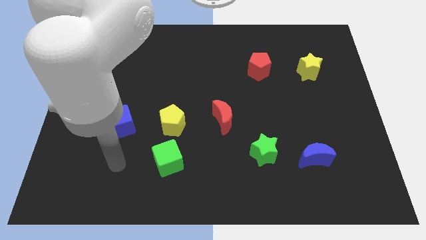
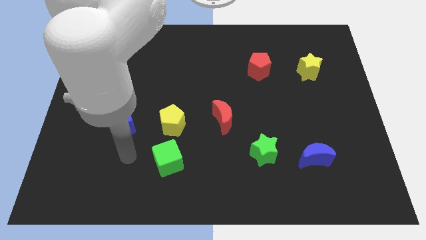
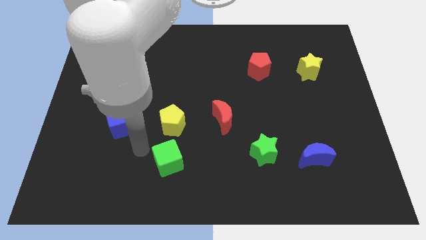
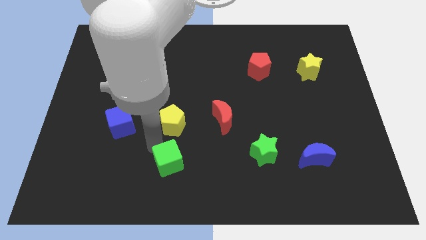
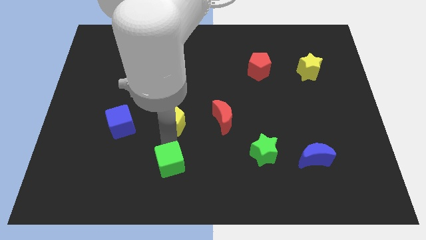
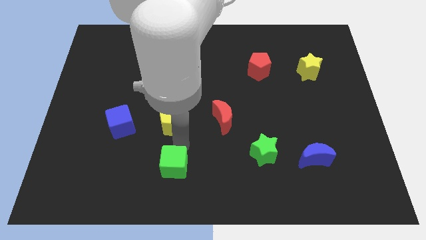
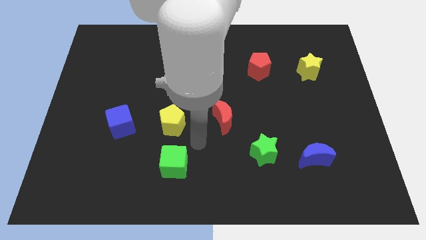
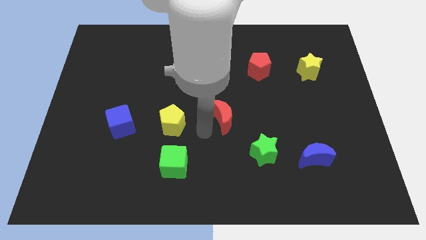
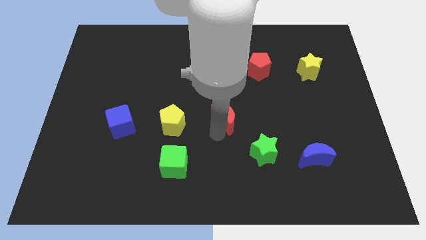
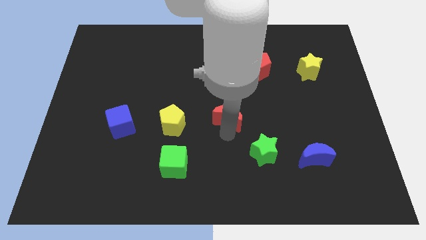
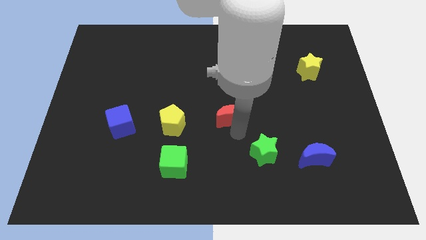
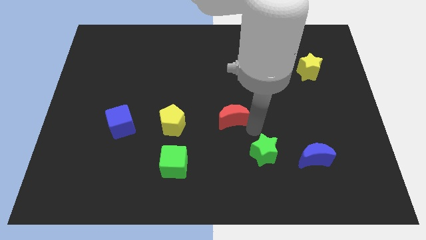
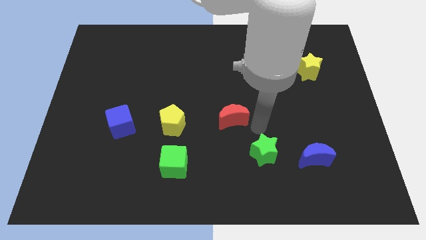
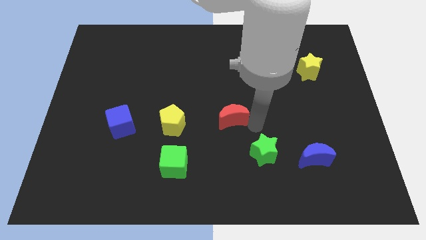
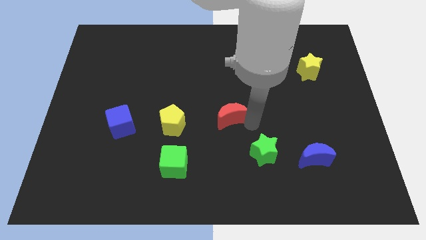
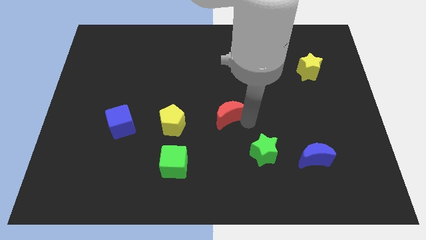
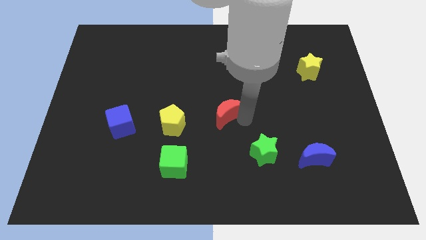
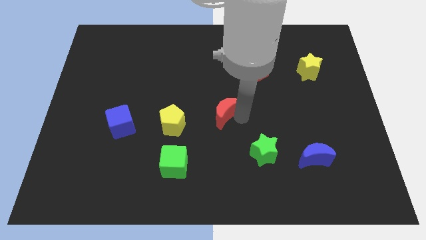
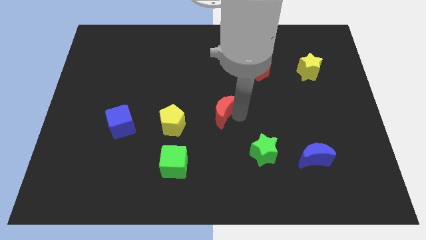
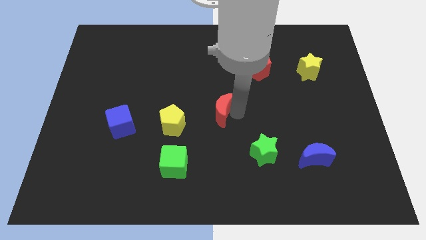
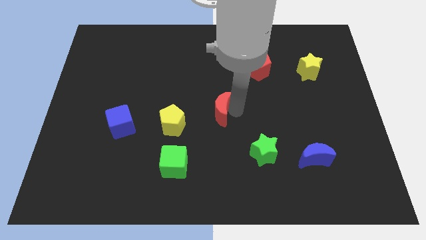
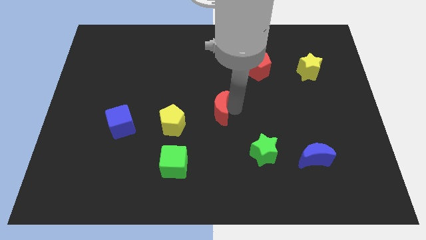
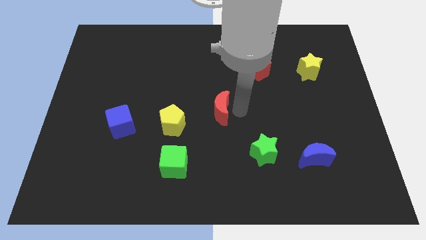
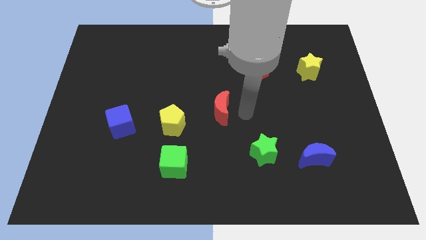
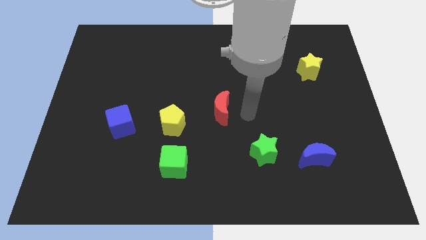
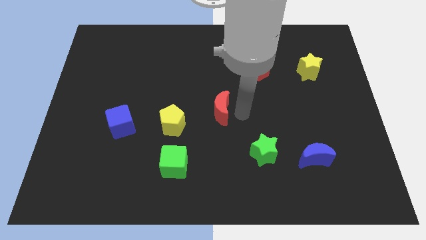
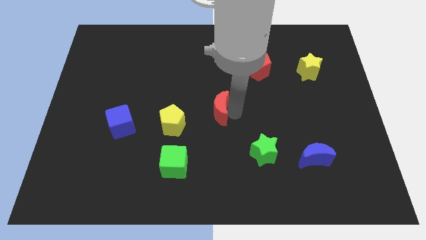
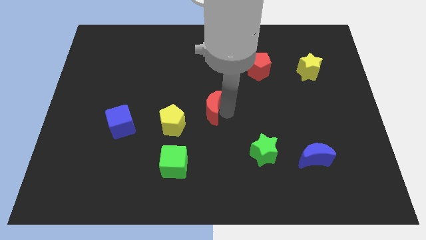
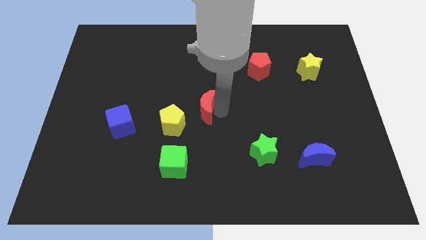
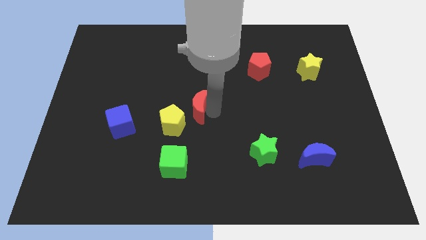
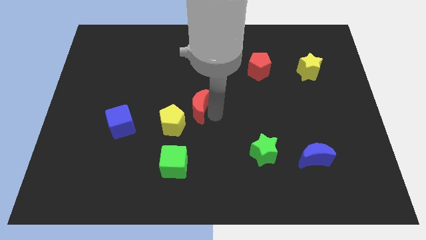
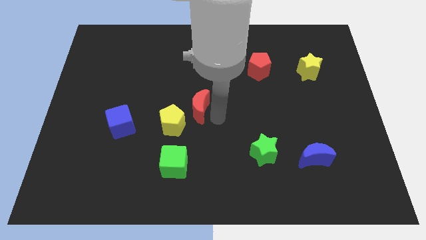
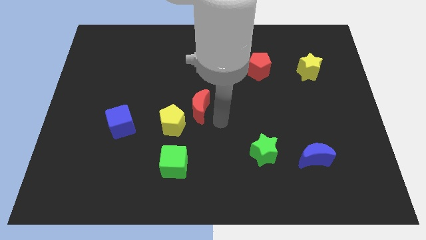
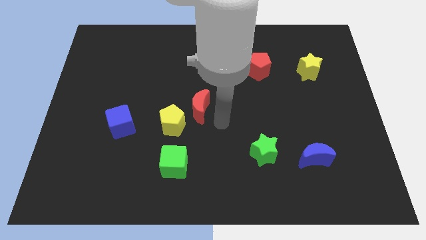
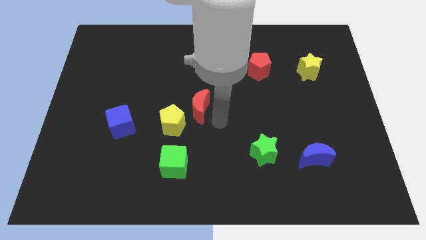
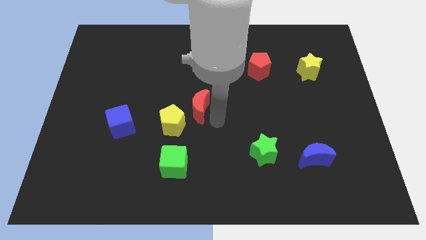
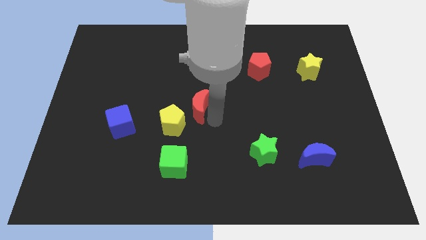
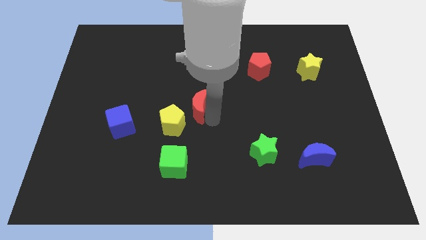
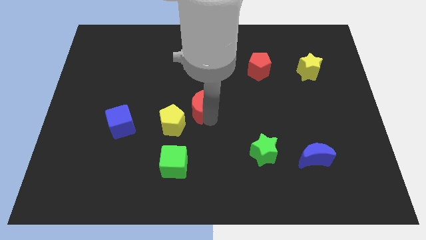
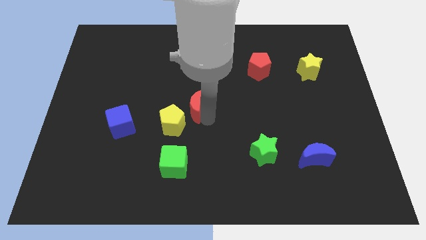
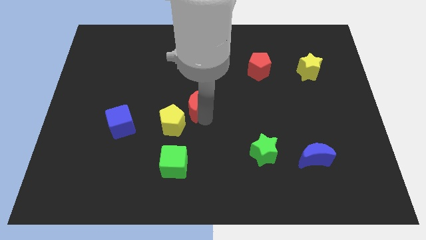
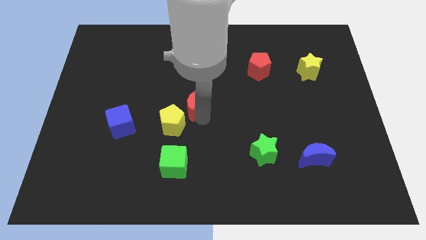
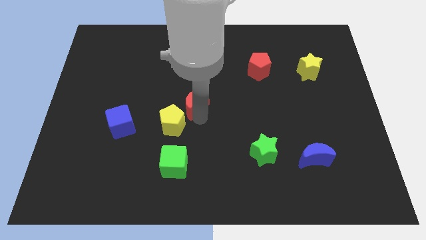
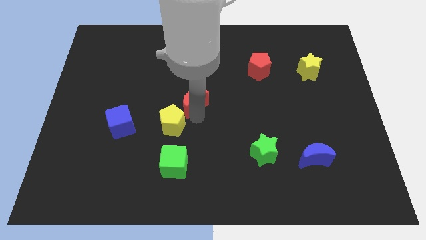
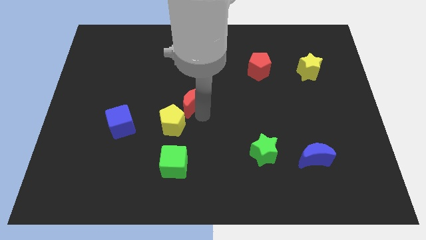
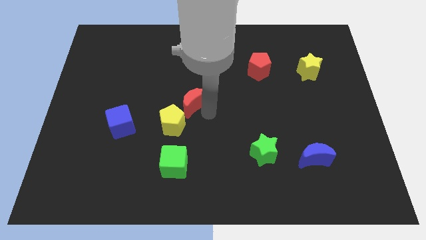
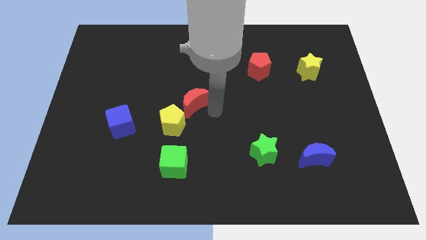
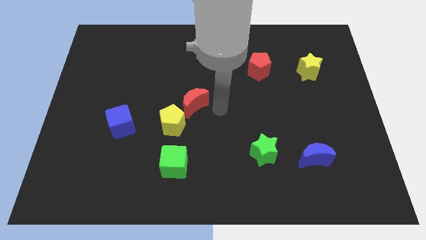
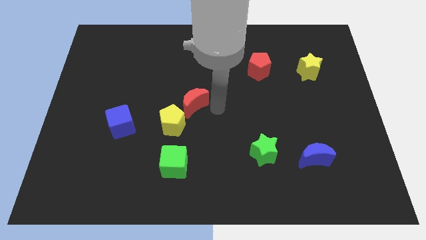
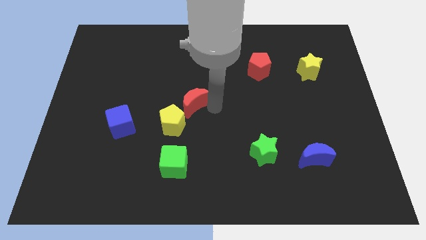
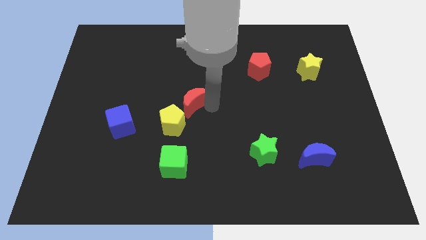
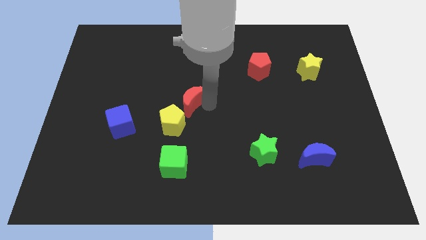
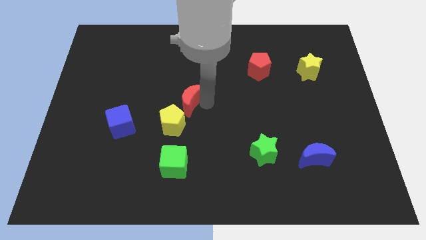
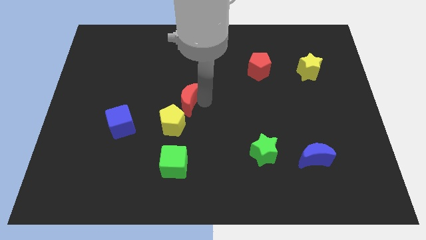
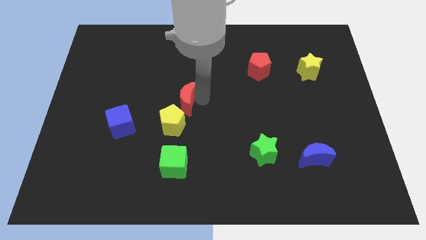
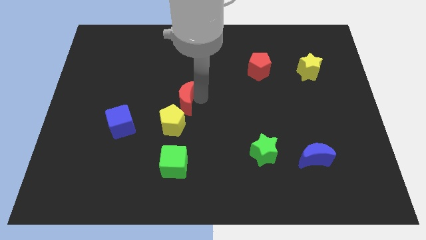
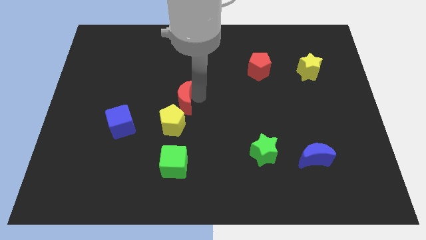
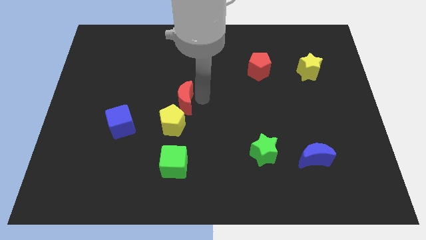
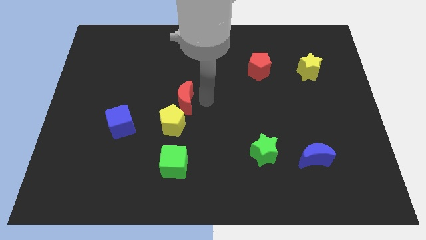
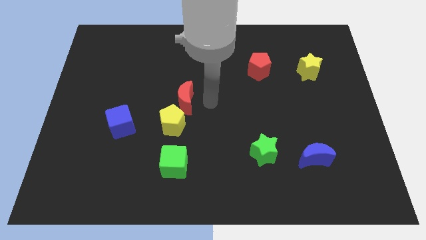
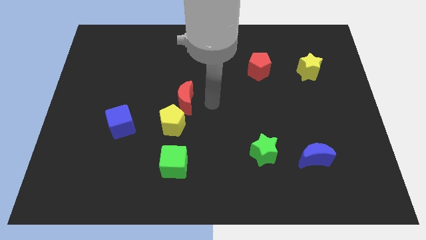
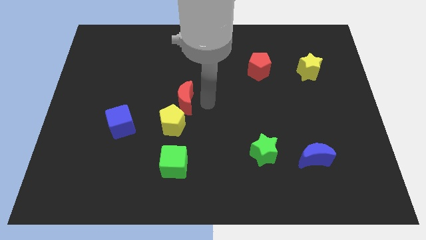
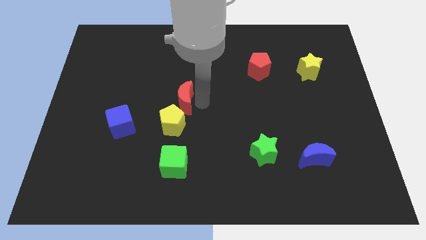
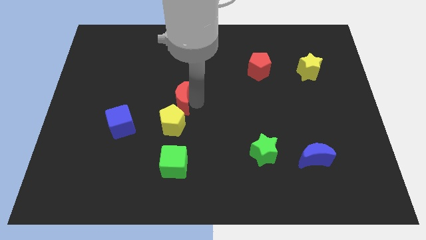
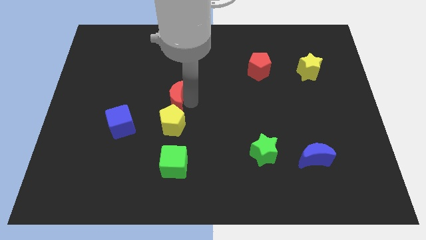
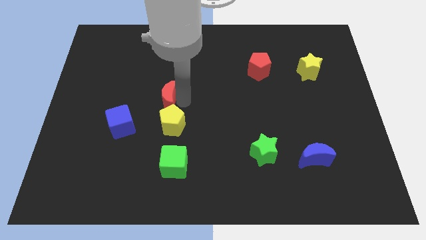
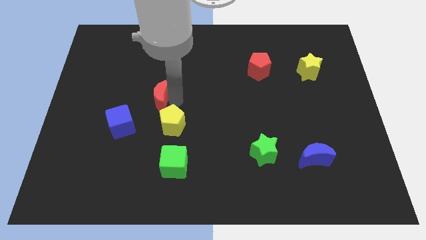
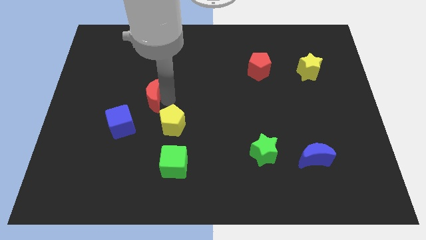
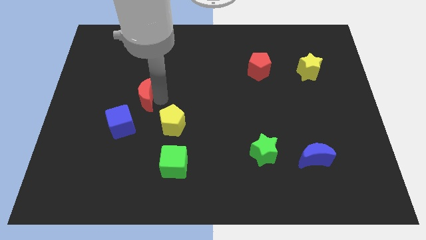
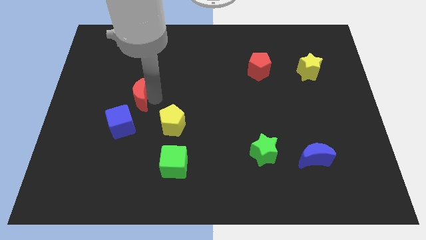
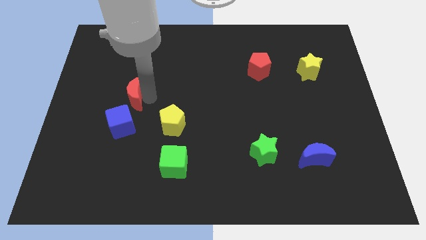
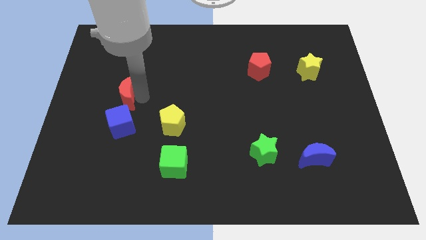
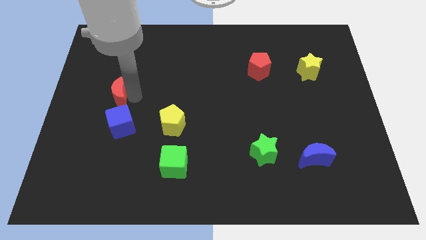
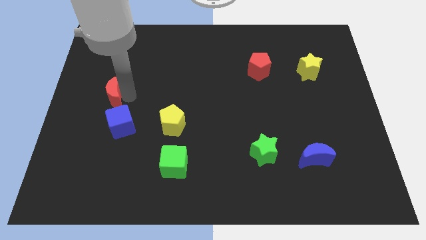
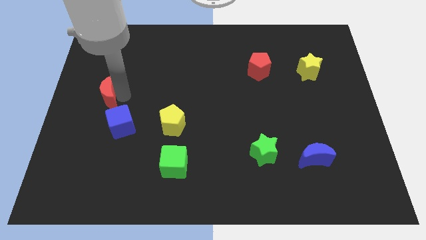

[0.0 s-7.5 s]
move the red moon to the center left

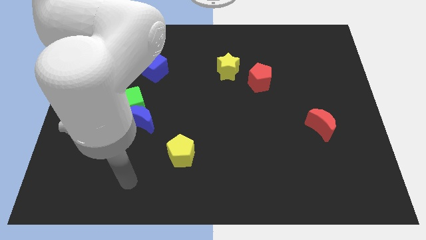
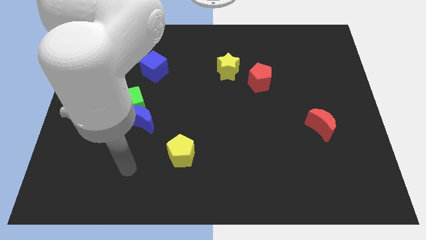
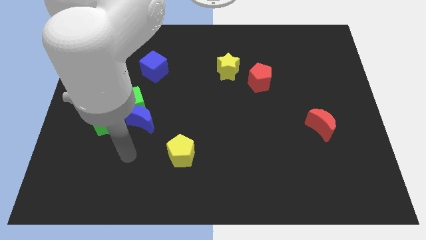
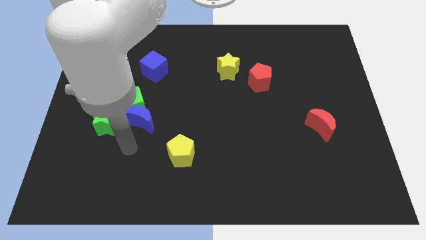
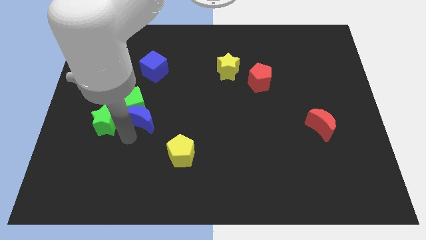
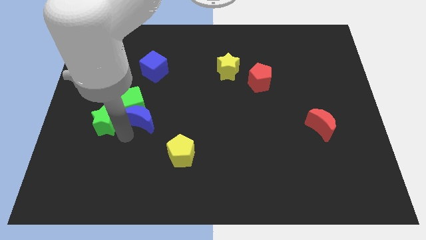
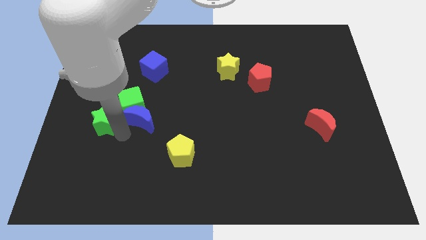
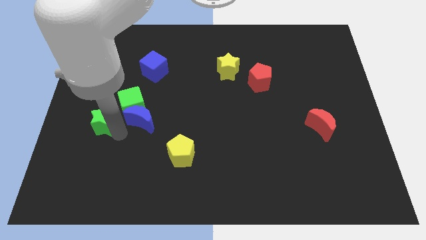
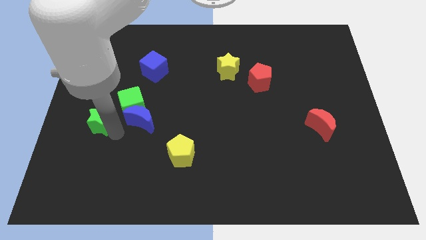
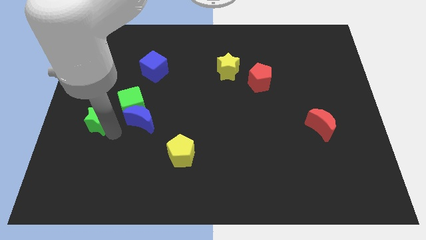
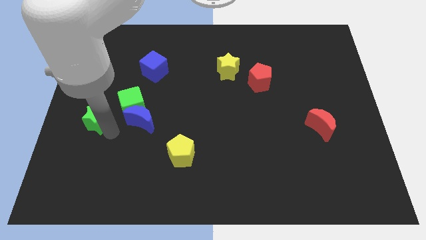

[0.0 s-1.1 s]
slide the green star to the left side
